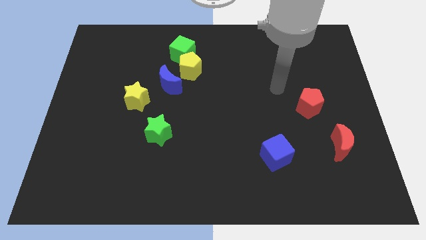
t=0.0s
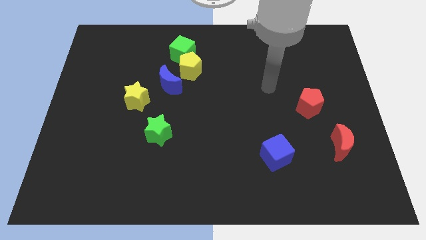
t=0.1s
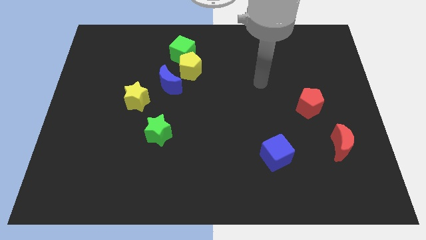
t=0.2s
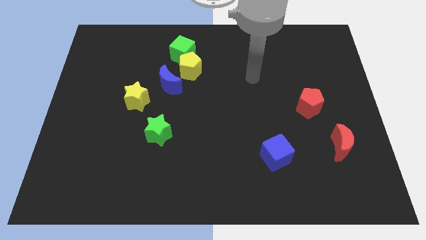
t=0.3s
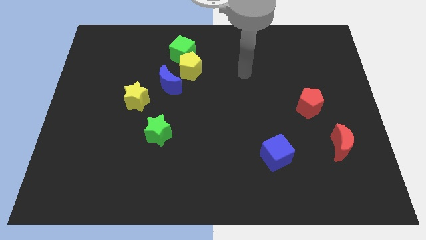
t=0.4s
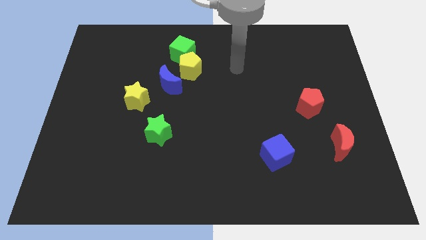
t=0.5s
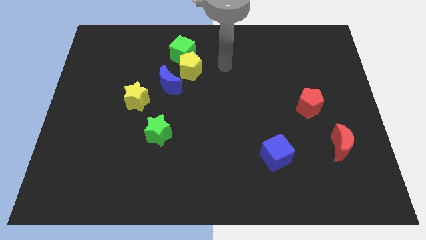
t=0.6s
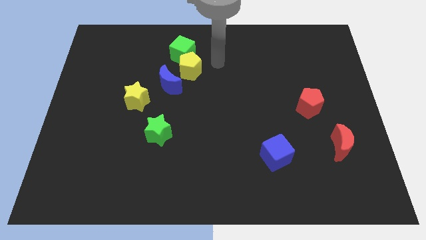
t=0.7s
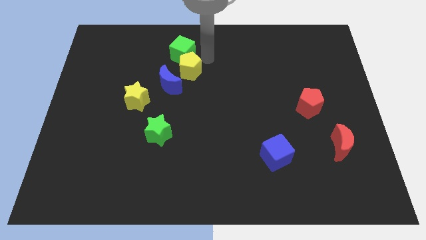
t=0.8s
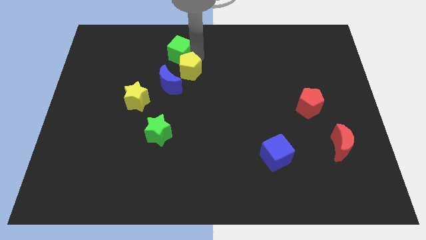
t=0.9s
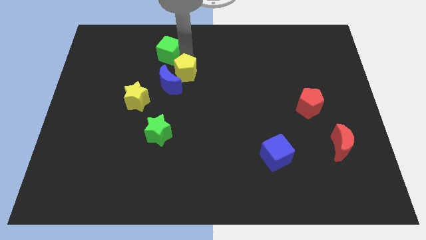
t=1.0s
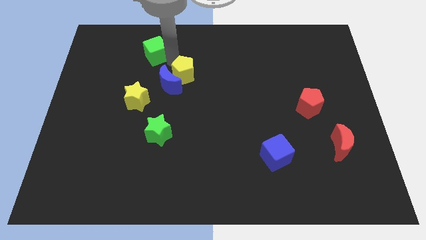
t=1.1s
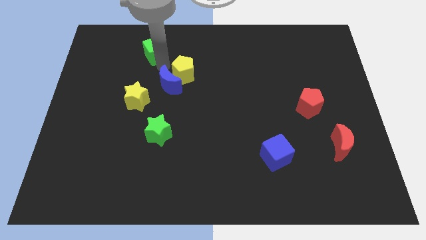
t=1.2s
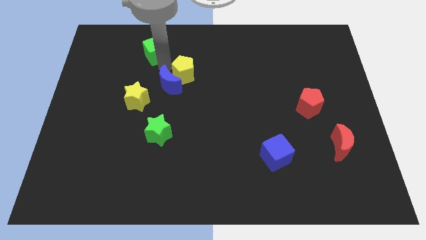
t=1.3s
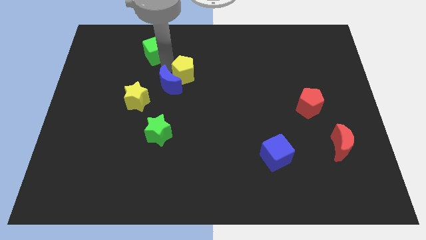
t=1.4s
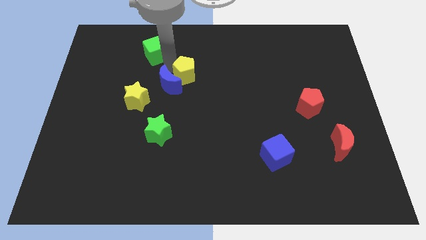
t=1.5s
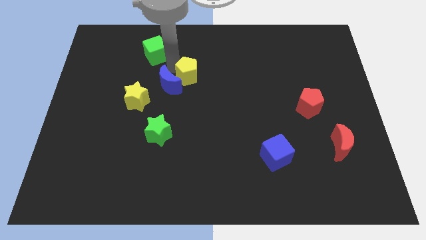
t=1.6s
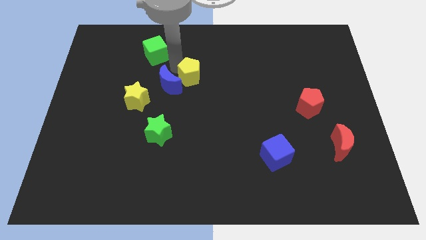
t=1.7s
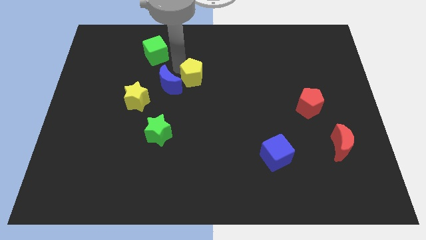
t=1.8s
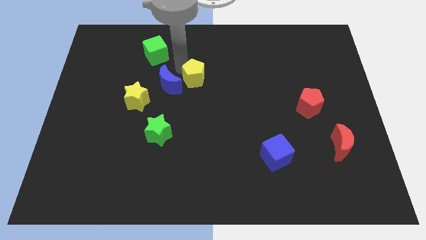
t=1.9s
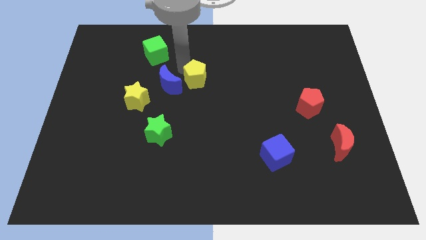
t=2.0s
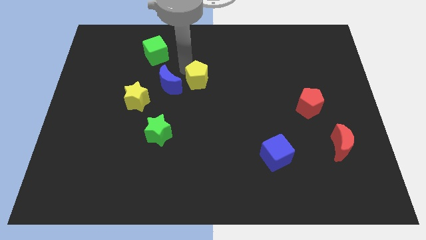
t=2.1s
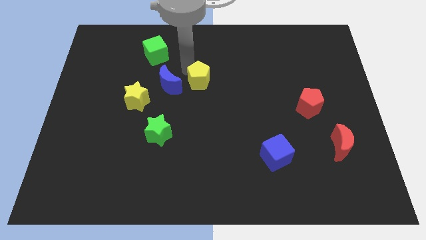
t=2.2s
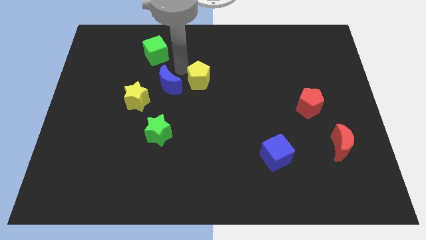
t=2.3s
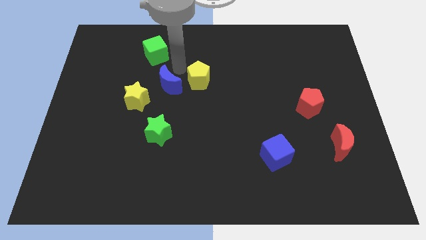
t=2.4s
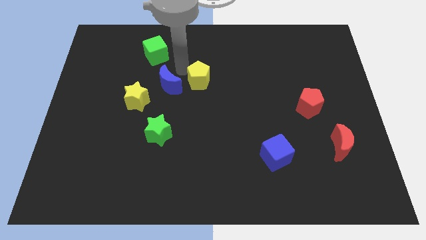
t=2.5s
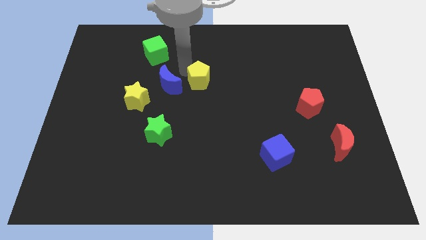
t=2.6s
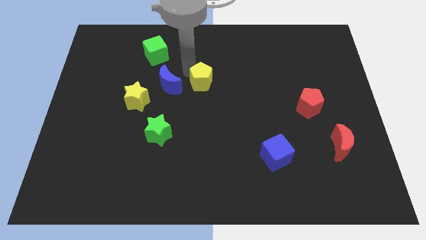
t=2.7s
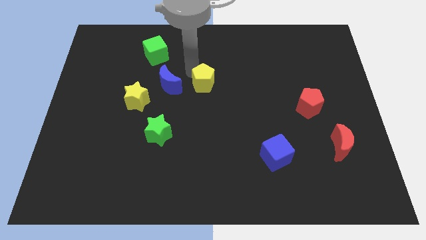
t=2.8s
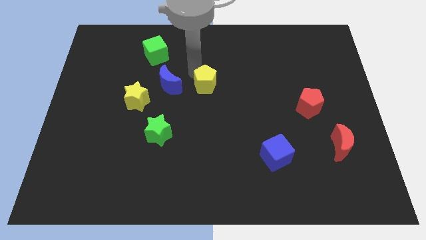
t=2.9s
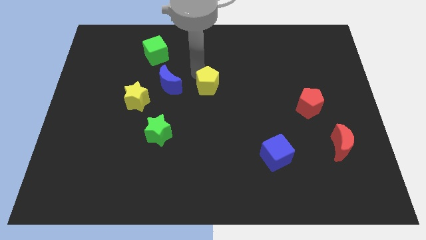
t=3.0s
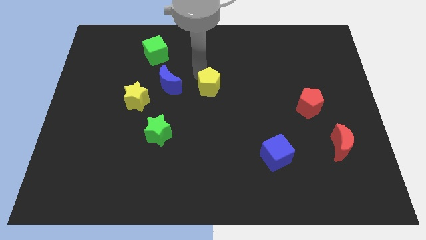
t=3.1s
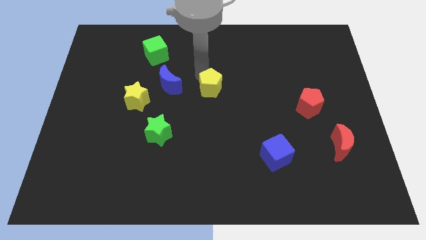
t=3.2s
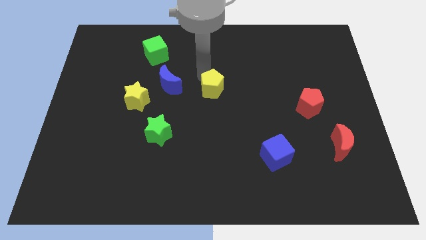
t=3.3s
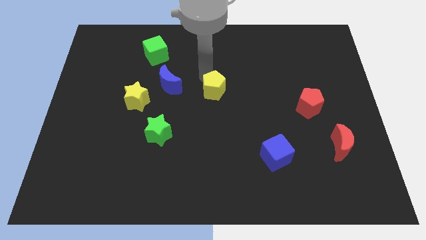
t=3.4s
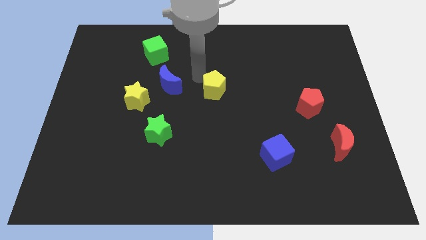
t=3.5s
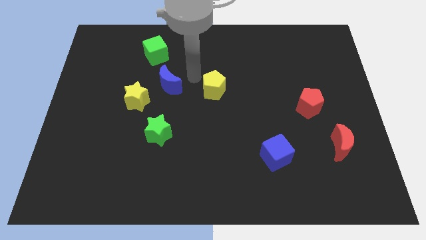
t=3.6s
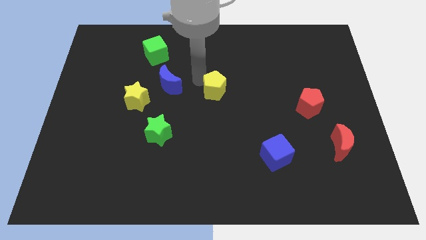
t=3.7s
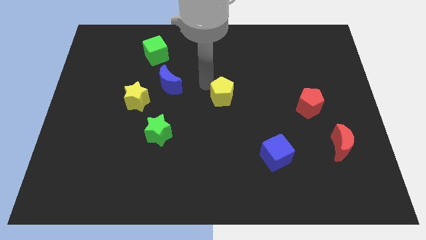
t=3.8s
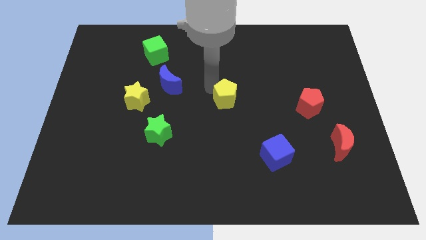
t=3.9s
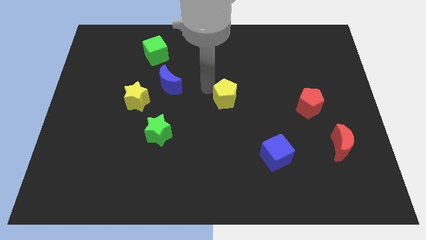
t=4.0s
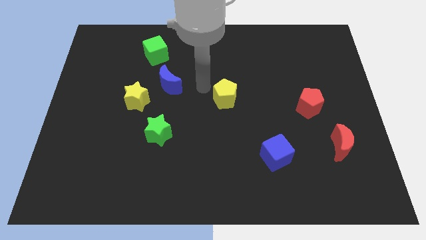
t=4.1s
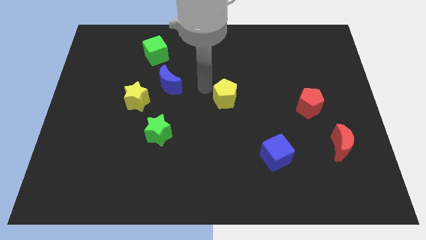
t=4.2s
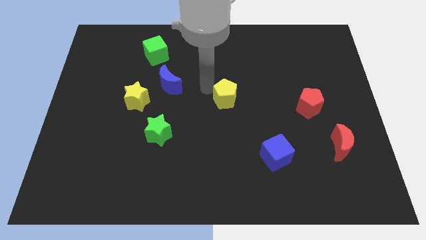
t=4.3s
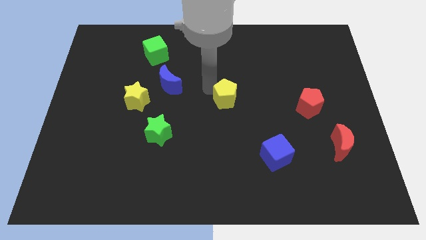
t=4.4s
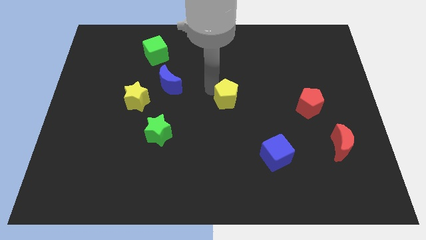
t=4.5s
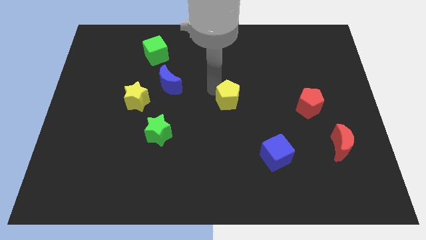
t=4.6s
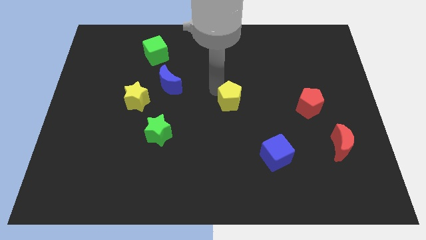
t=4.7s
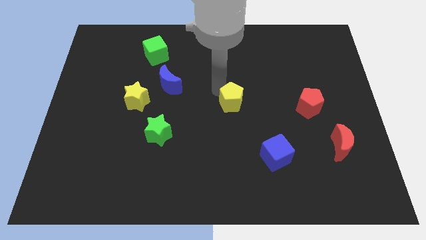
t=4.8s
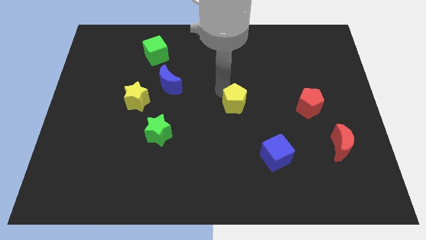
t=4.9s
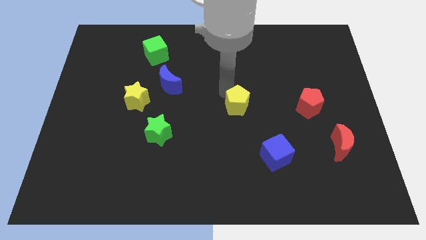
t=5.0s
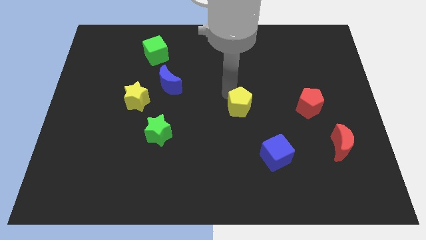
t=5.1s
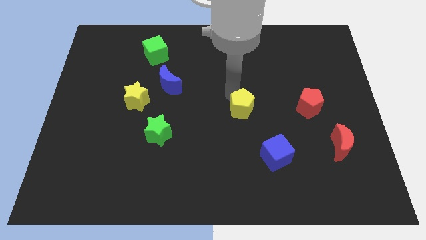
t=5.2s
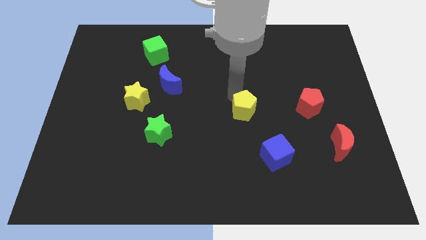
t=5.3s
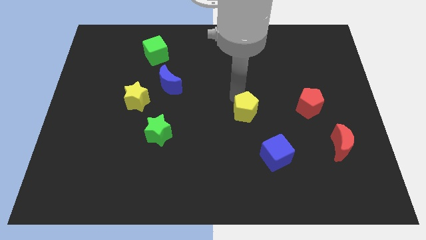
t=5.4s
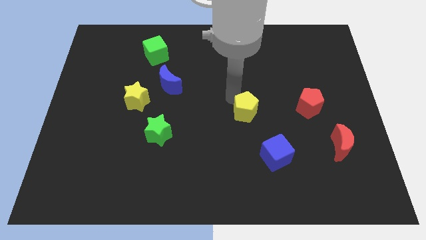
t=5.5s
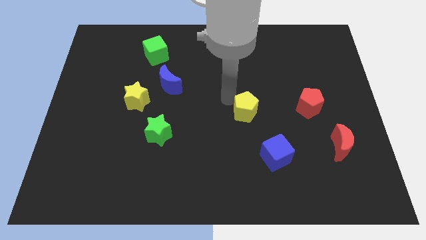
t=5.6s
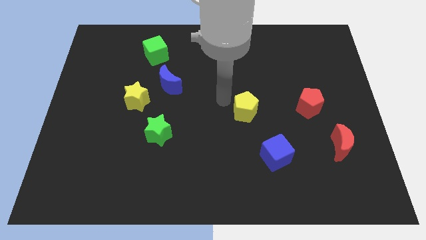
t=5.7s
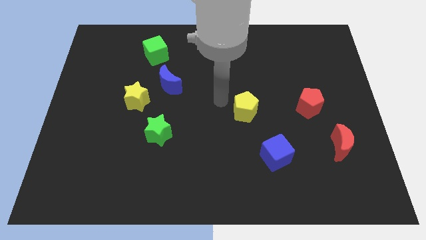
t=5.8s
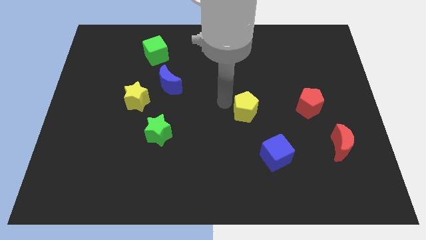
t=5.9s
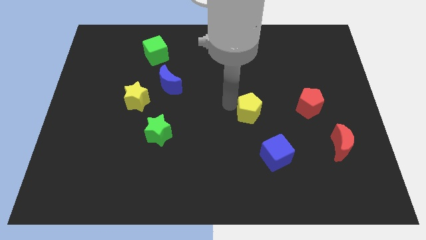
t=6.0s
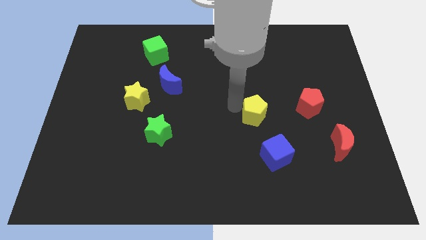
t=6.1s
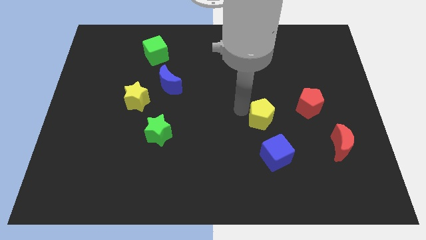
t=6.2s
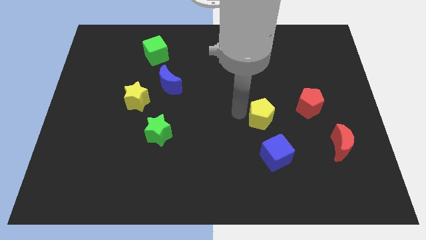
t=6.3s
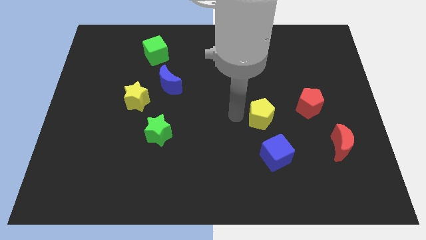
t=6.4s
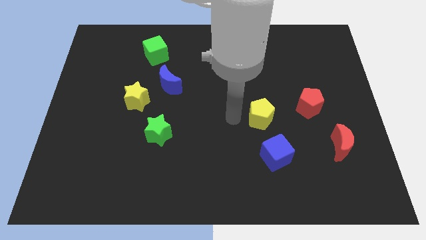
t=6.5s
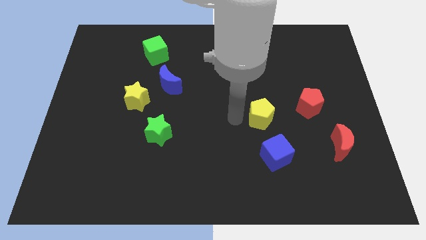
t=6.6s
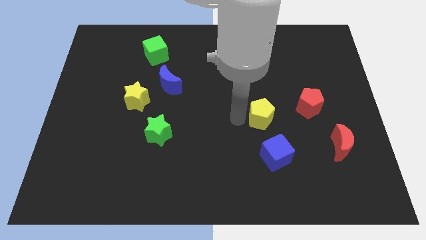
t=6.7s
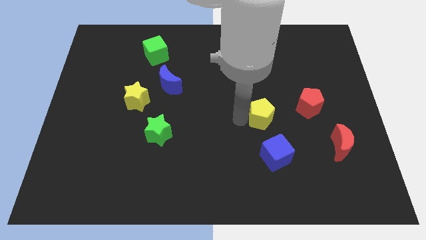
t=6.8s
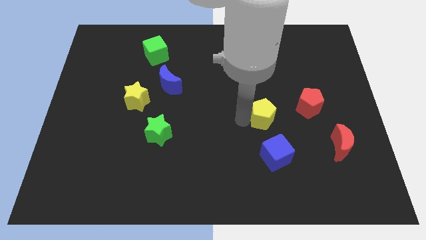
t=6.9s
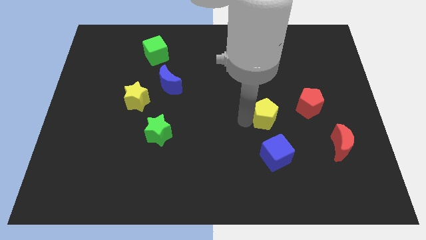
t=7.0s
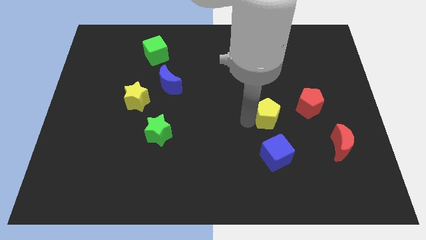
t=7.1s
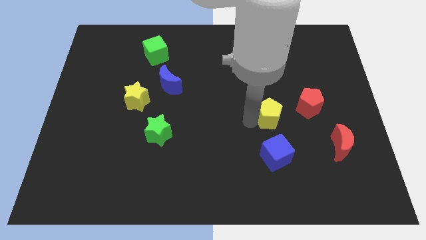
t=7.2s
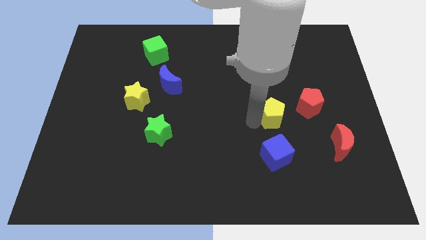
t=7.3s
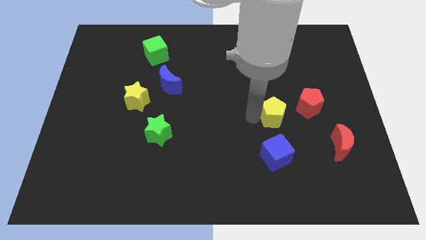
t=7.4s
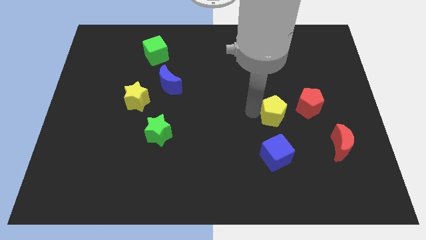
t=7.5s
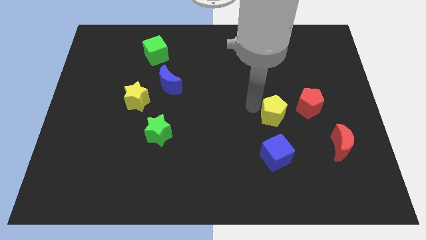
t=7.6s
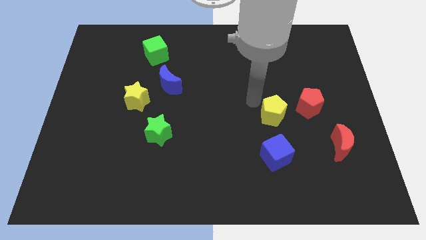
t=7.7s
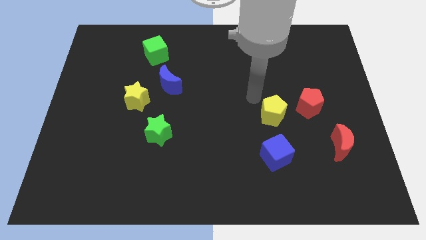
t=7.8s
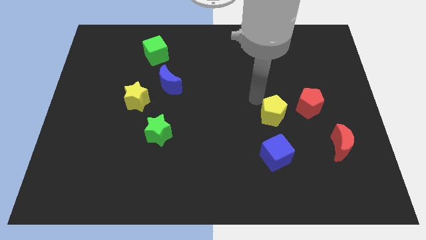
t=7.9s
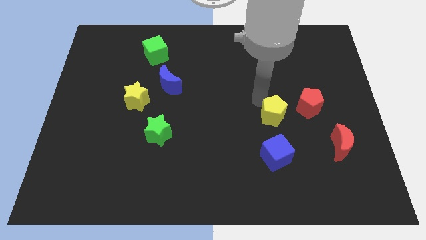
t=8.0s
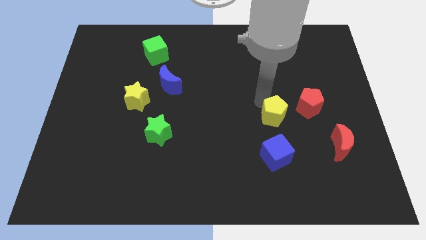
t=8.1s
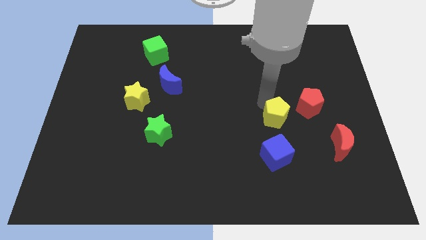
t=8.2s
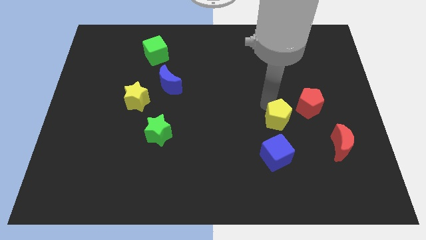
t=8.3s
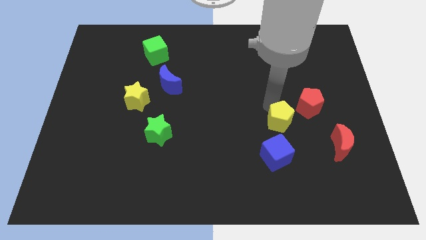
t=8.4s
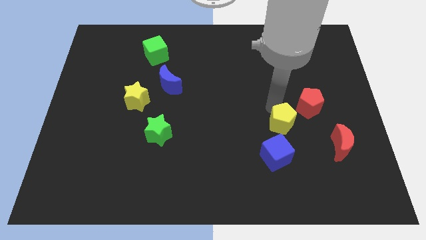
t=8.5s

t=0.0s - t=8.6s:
put the yellow pentagon diagonally up and to the right of the blue cube
